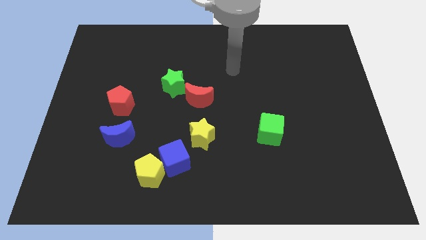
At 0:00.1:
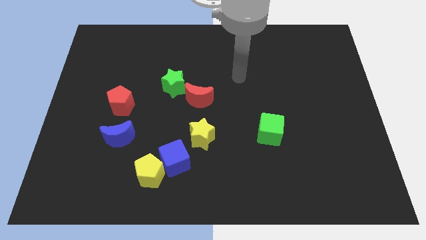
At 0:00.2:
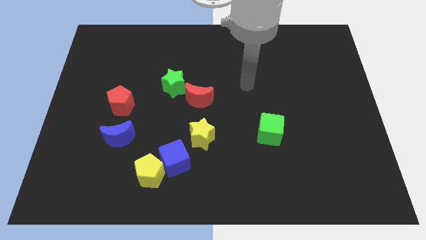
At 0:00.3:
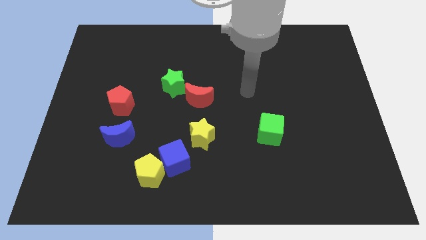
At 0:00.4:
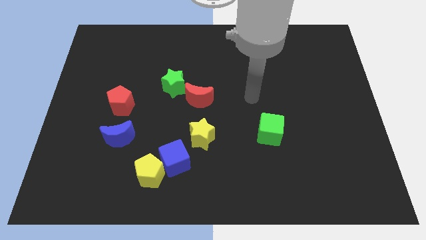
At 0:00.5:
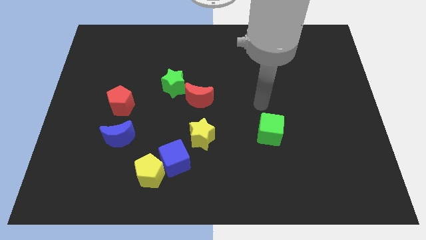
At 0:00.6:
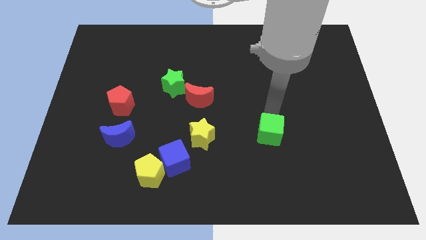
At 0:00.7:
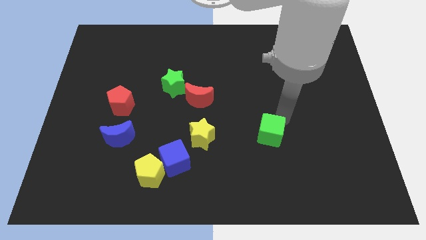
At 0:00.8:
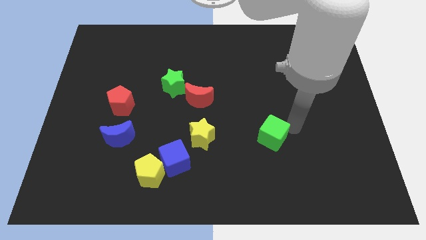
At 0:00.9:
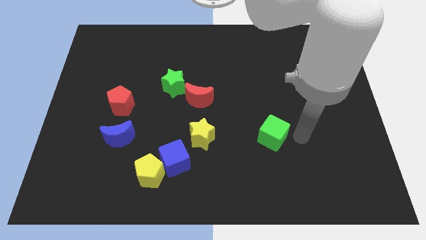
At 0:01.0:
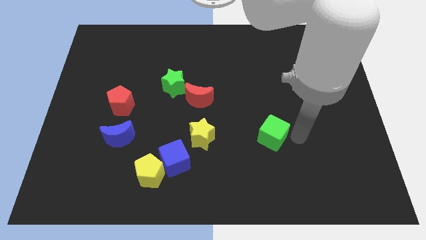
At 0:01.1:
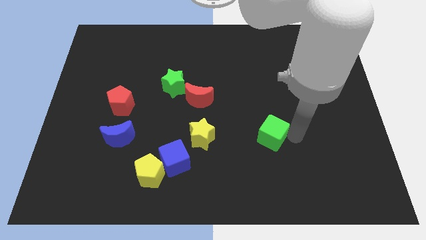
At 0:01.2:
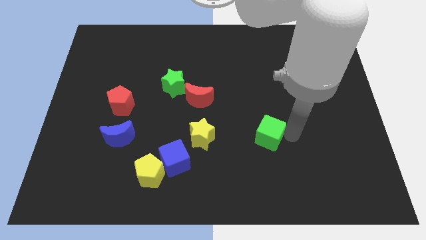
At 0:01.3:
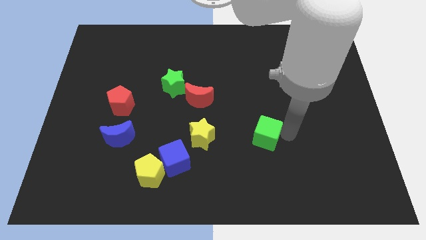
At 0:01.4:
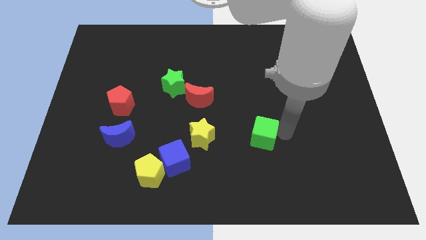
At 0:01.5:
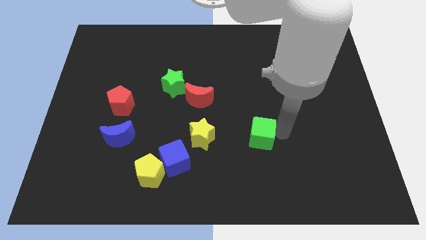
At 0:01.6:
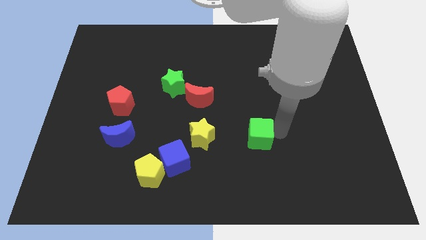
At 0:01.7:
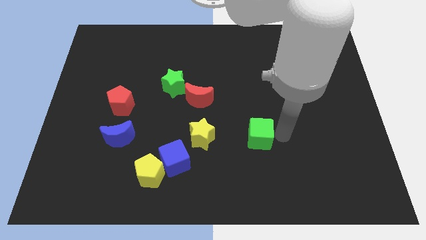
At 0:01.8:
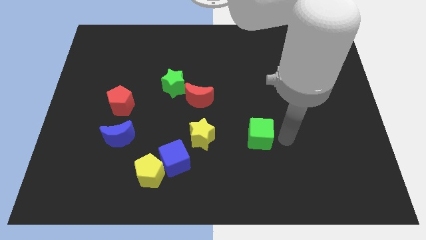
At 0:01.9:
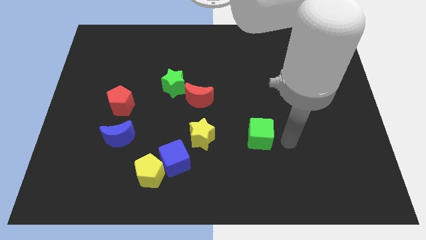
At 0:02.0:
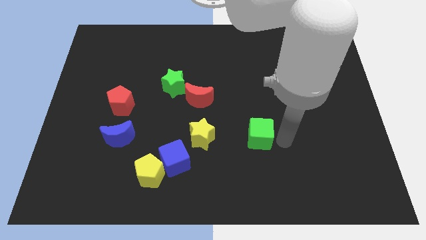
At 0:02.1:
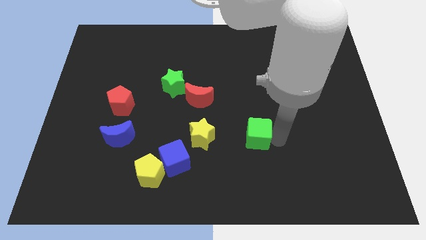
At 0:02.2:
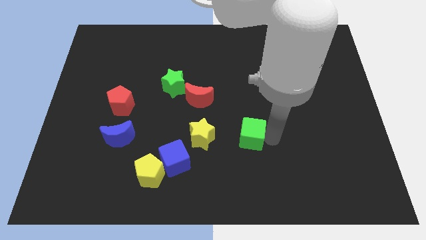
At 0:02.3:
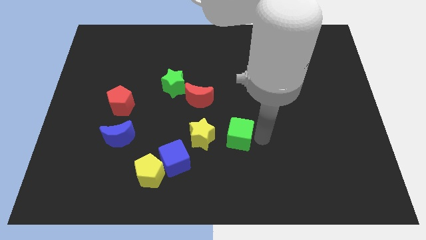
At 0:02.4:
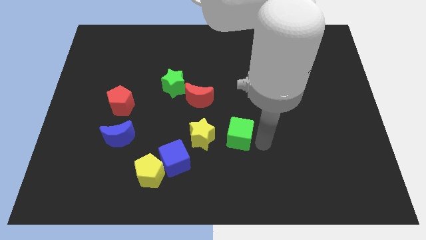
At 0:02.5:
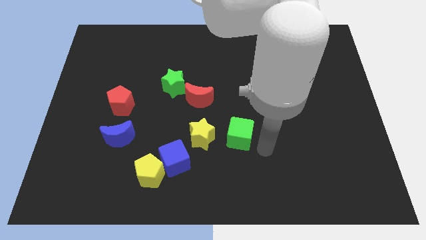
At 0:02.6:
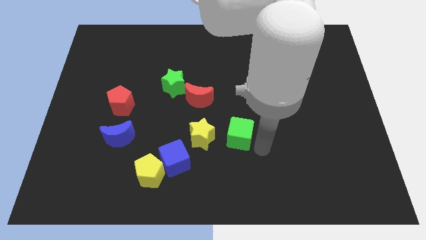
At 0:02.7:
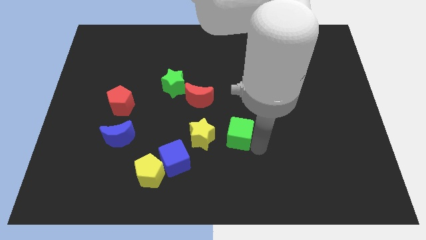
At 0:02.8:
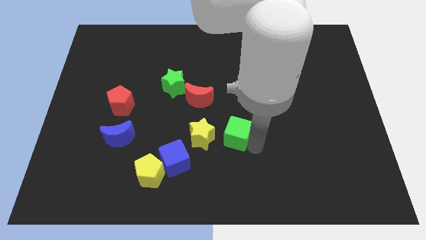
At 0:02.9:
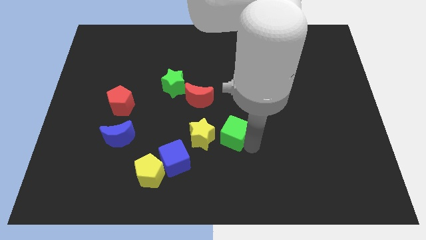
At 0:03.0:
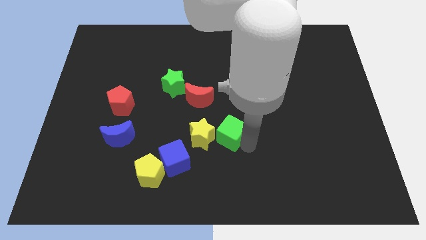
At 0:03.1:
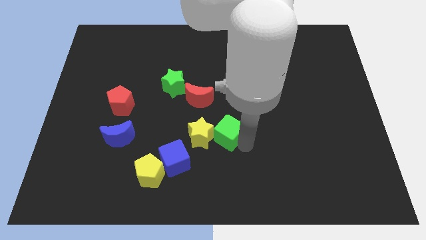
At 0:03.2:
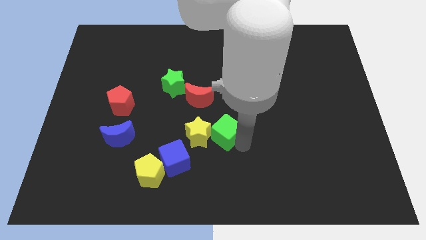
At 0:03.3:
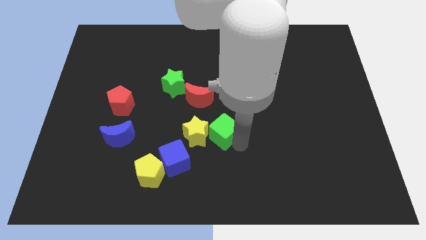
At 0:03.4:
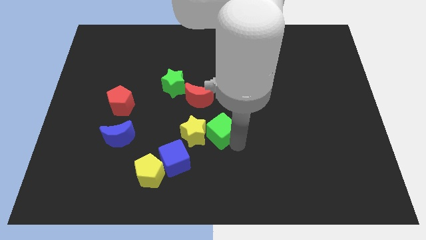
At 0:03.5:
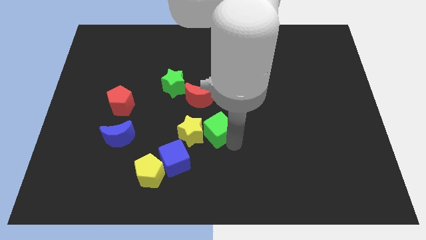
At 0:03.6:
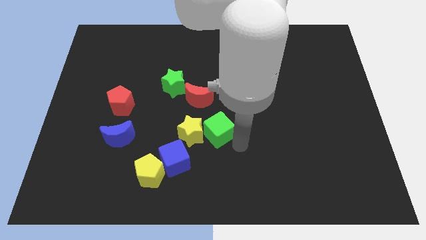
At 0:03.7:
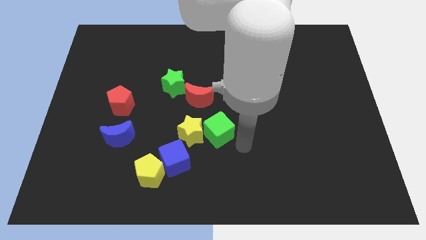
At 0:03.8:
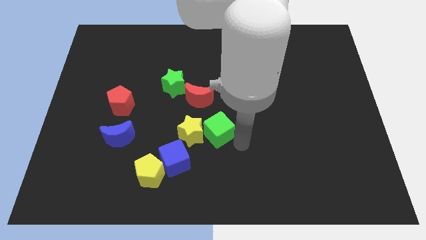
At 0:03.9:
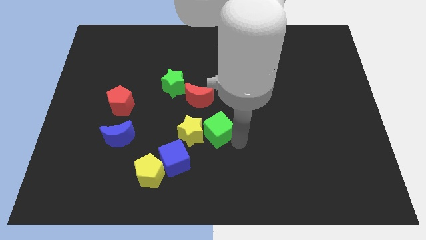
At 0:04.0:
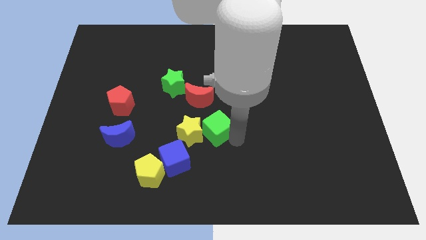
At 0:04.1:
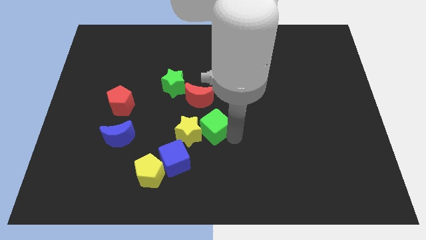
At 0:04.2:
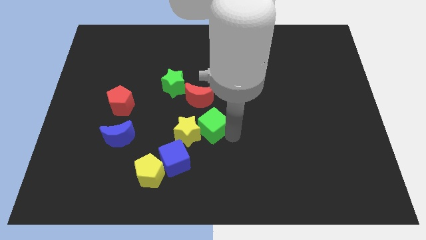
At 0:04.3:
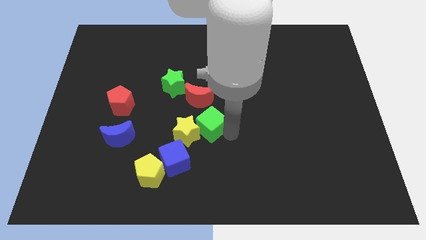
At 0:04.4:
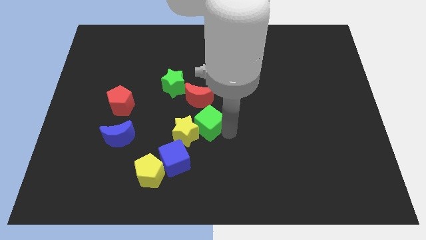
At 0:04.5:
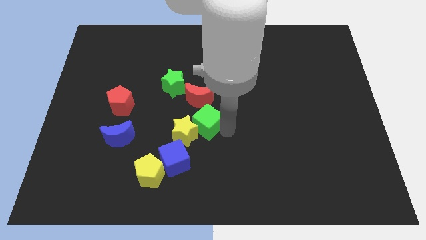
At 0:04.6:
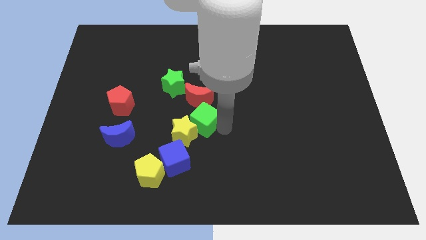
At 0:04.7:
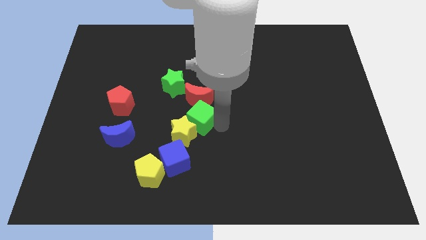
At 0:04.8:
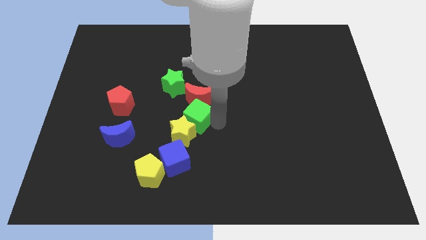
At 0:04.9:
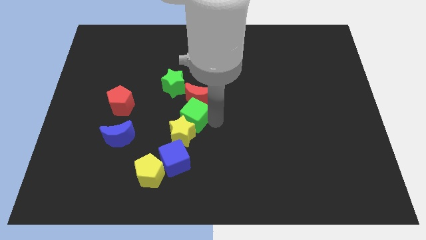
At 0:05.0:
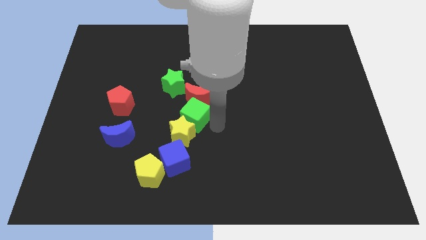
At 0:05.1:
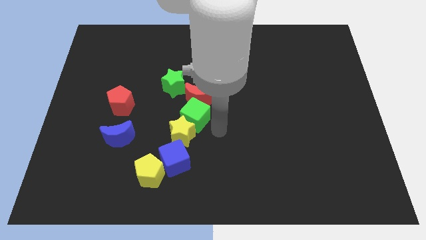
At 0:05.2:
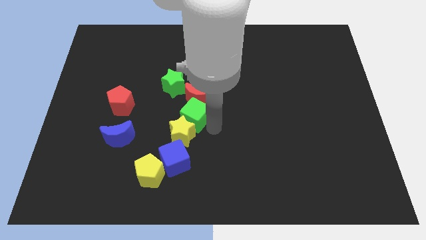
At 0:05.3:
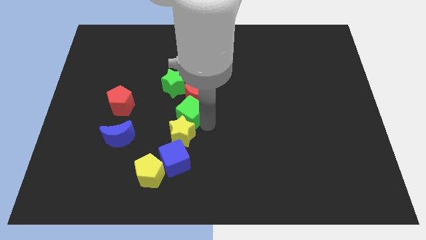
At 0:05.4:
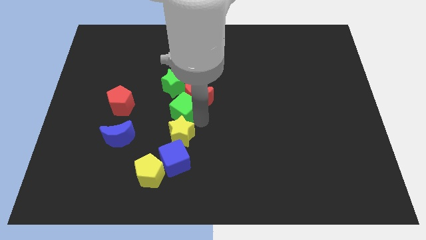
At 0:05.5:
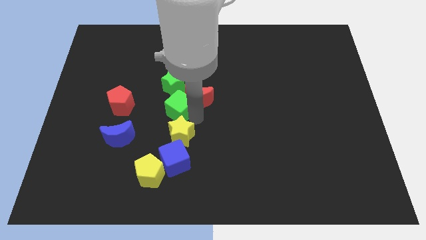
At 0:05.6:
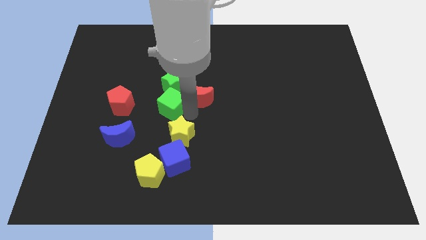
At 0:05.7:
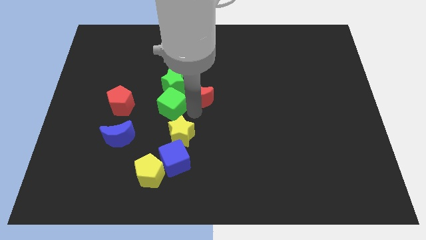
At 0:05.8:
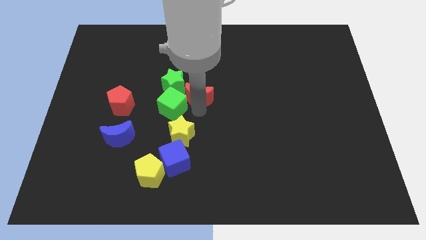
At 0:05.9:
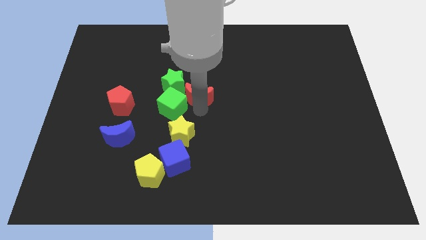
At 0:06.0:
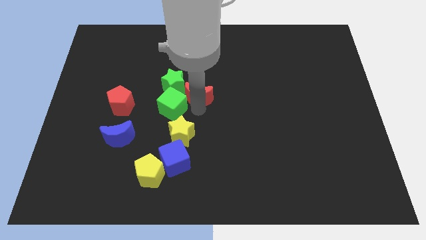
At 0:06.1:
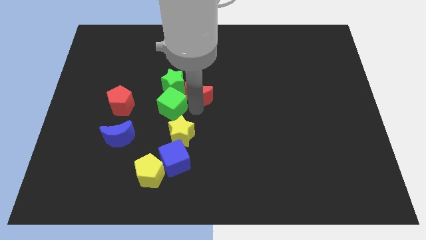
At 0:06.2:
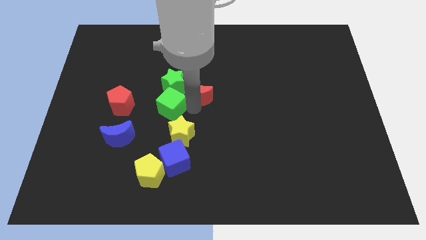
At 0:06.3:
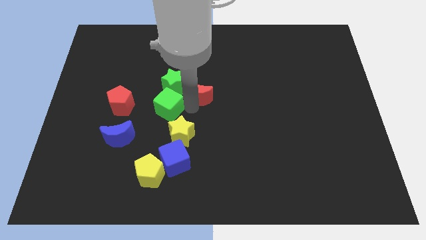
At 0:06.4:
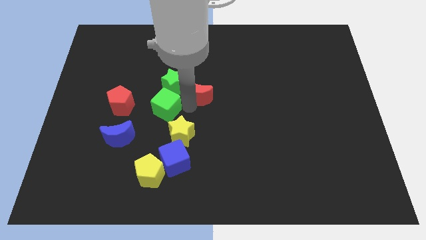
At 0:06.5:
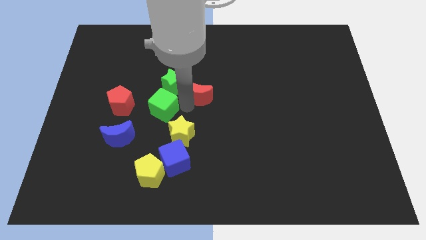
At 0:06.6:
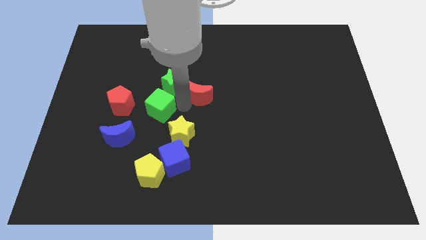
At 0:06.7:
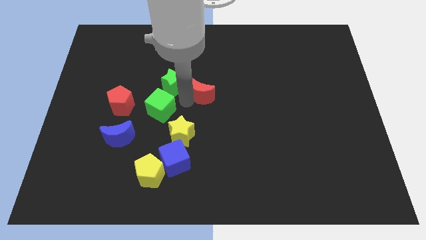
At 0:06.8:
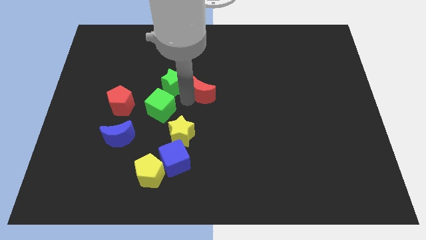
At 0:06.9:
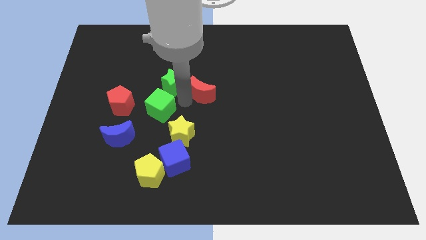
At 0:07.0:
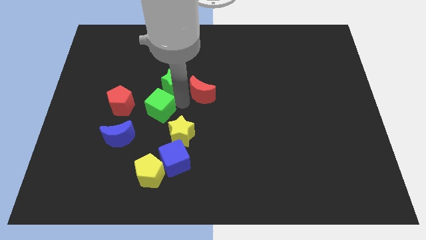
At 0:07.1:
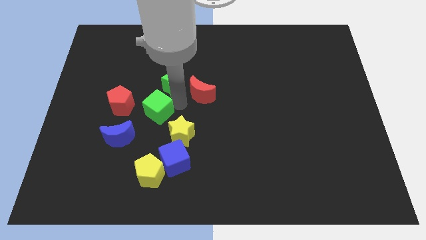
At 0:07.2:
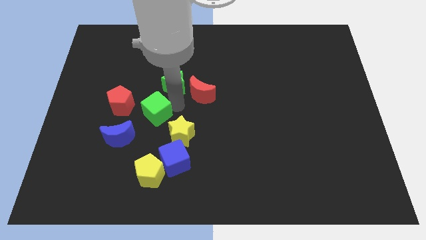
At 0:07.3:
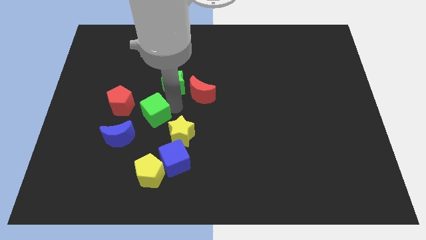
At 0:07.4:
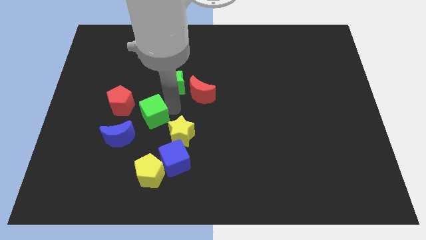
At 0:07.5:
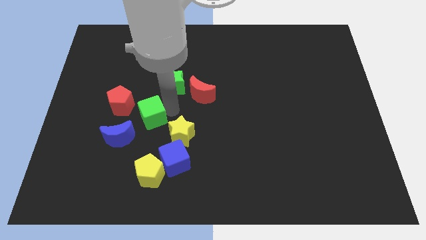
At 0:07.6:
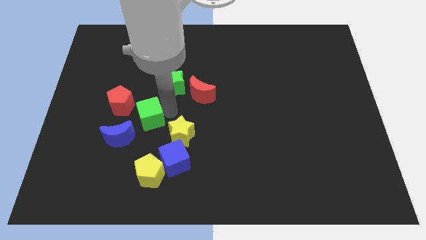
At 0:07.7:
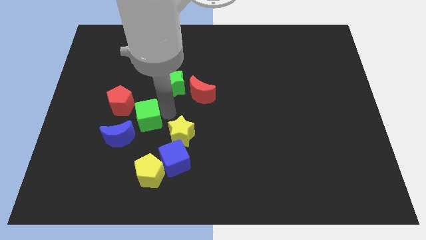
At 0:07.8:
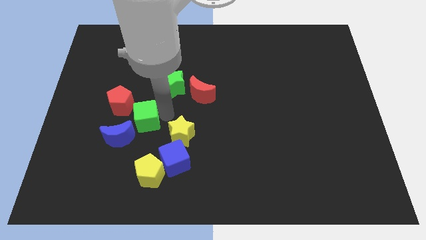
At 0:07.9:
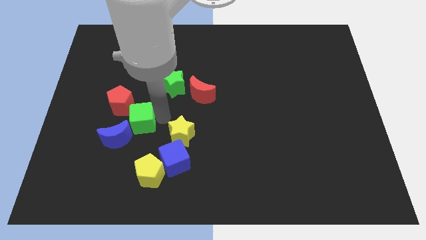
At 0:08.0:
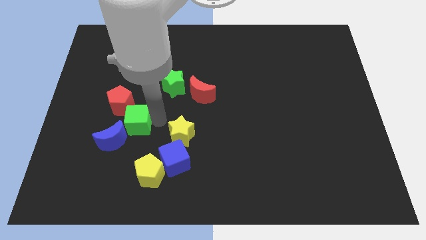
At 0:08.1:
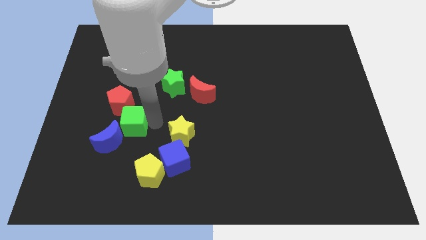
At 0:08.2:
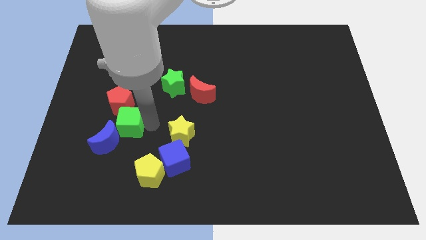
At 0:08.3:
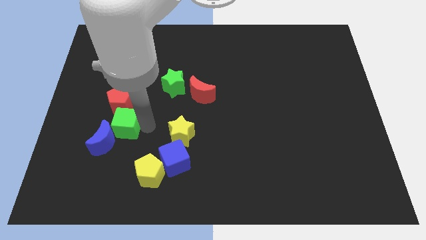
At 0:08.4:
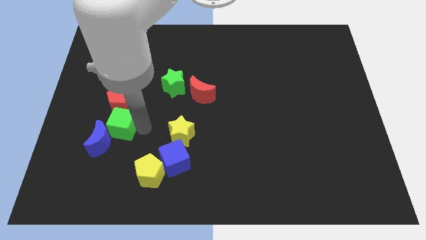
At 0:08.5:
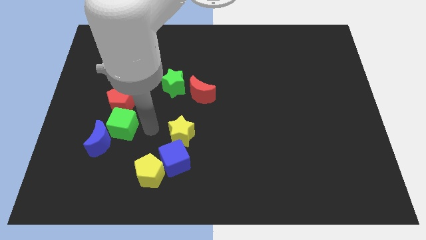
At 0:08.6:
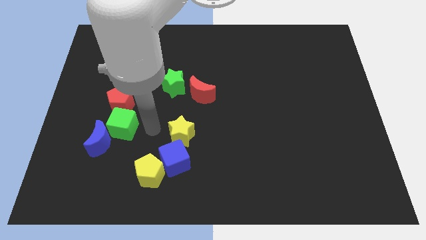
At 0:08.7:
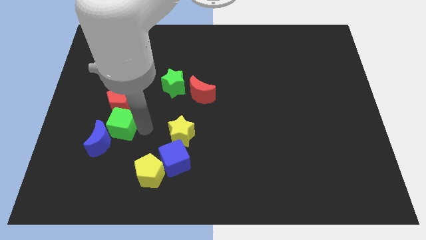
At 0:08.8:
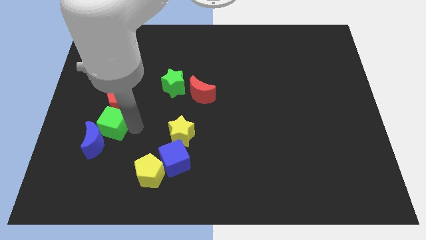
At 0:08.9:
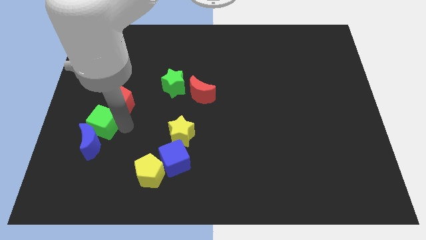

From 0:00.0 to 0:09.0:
slide the green cube to the top left of the blue moon
